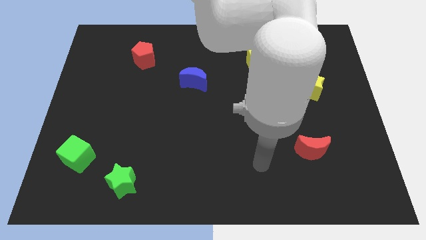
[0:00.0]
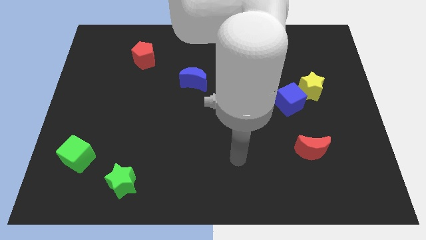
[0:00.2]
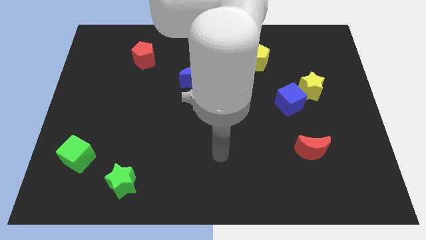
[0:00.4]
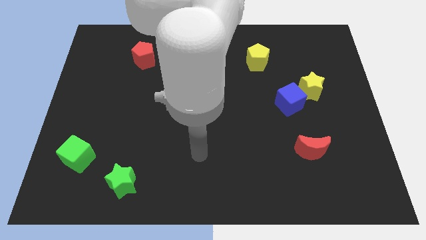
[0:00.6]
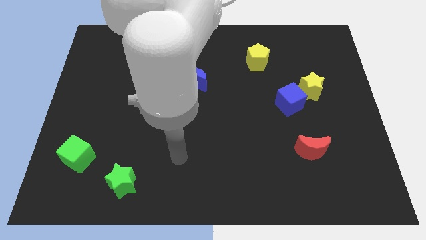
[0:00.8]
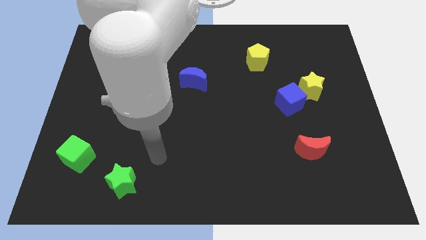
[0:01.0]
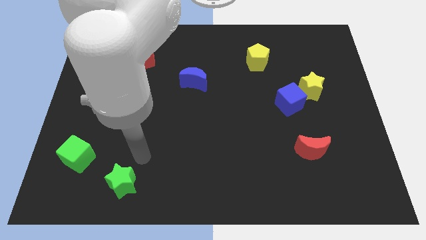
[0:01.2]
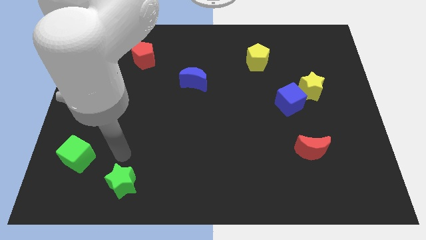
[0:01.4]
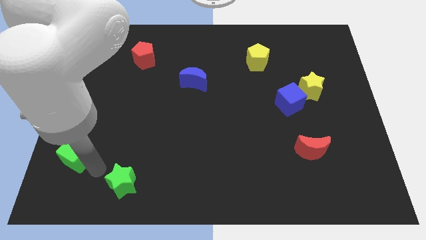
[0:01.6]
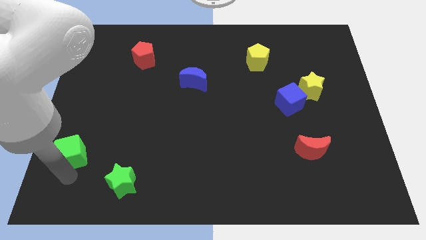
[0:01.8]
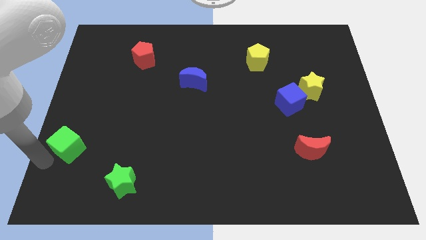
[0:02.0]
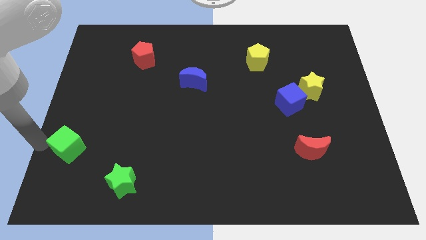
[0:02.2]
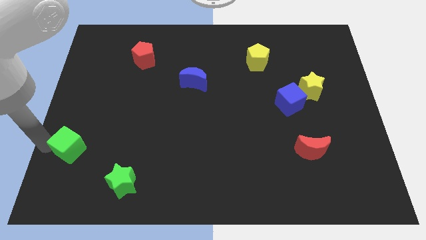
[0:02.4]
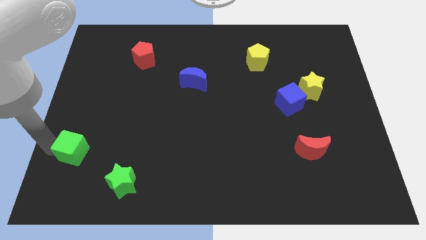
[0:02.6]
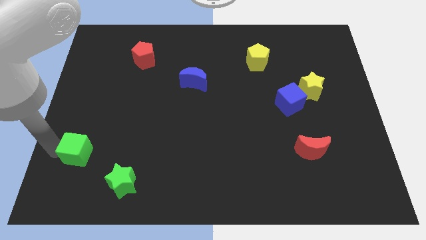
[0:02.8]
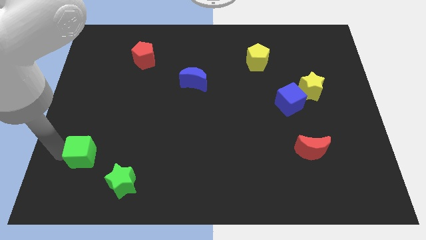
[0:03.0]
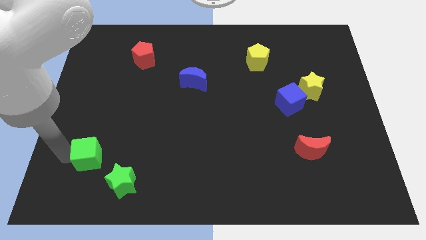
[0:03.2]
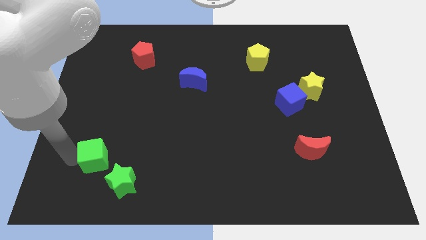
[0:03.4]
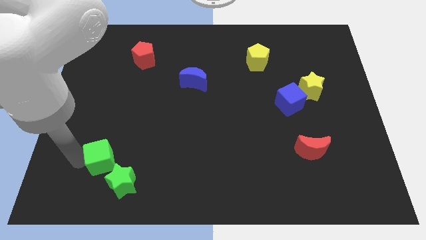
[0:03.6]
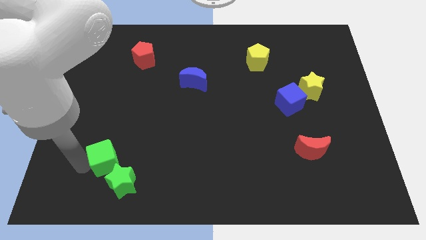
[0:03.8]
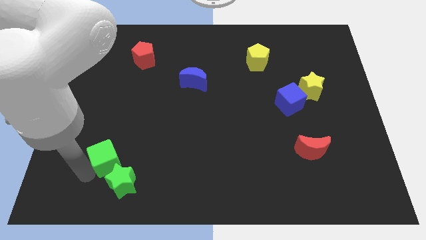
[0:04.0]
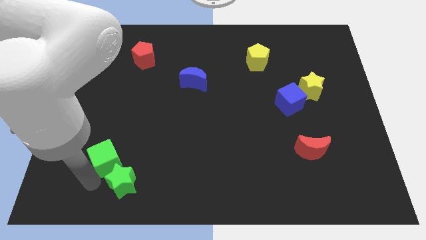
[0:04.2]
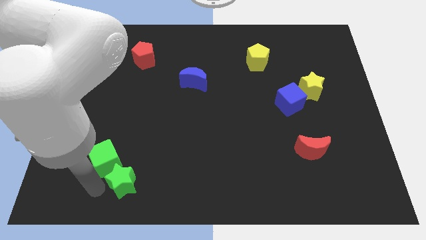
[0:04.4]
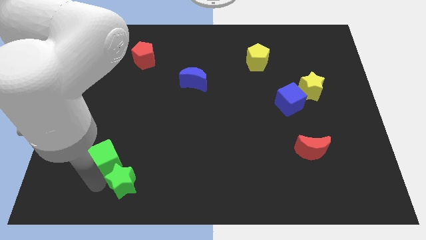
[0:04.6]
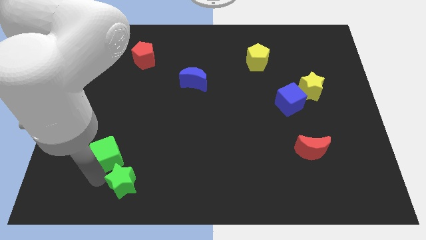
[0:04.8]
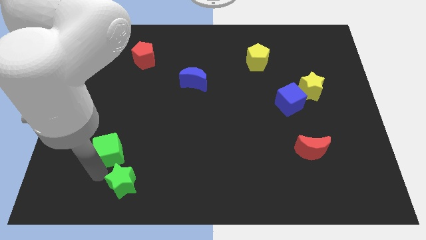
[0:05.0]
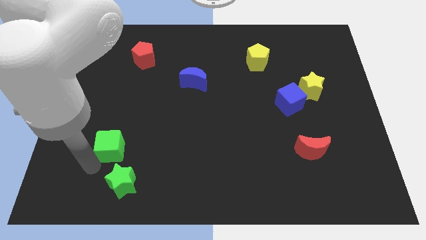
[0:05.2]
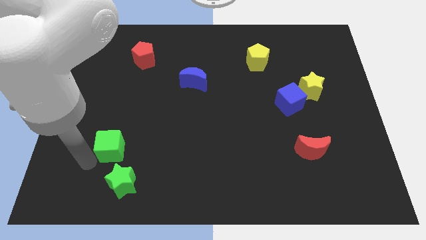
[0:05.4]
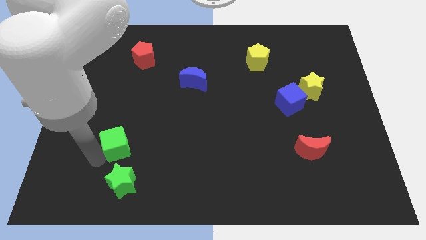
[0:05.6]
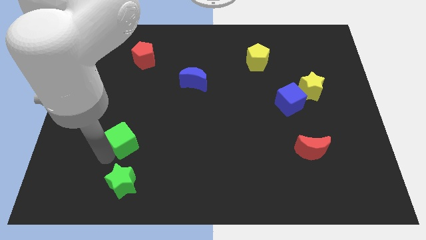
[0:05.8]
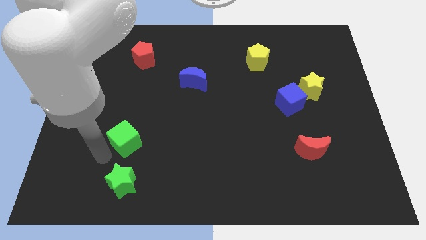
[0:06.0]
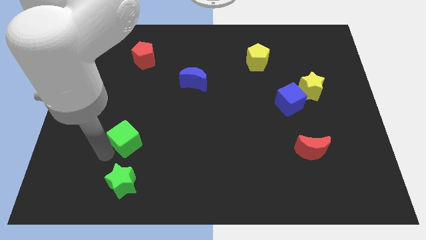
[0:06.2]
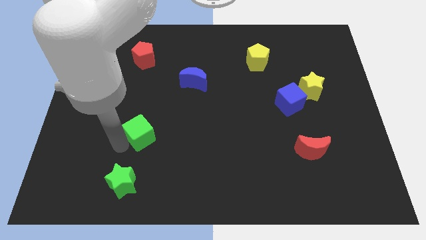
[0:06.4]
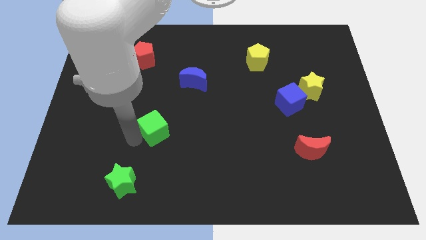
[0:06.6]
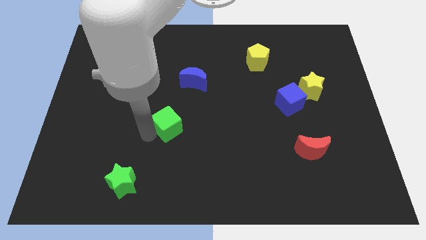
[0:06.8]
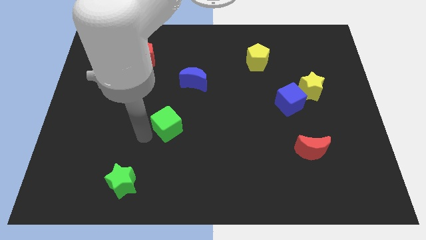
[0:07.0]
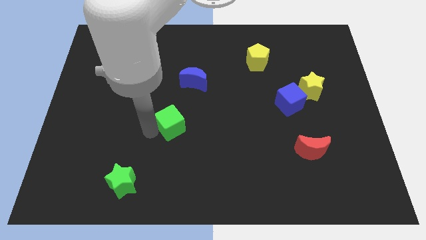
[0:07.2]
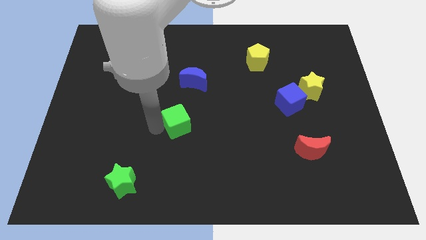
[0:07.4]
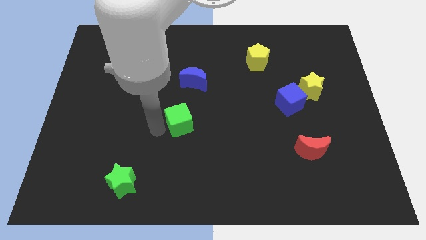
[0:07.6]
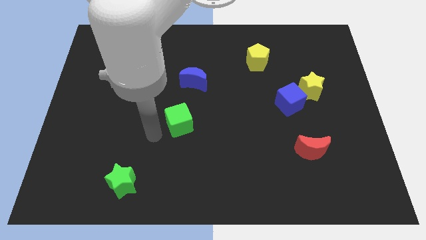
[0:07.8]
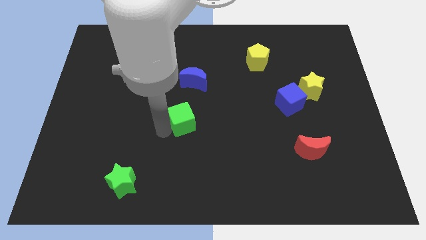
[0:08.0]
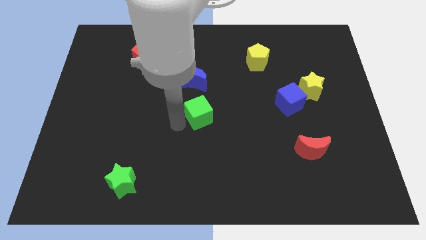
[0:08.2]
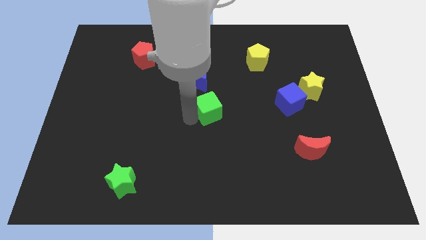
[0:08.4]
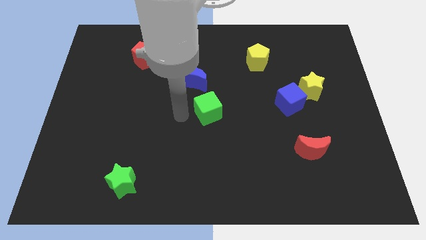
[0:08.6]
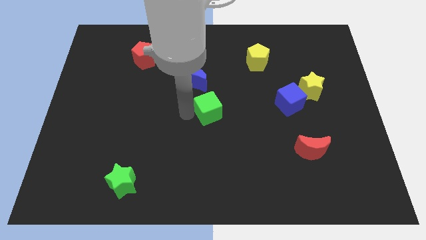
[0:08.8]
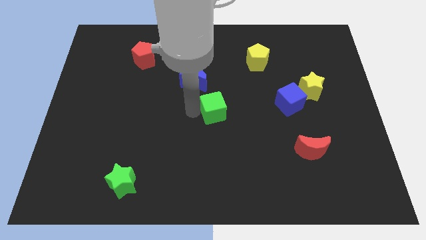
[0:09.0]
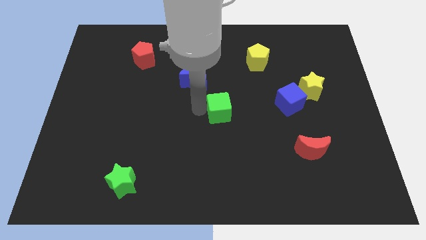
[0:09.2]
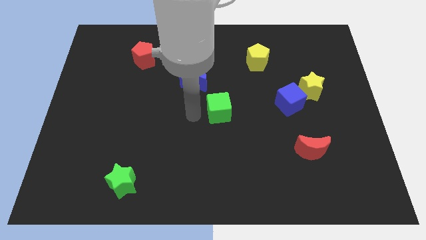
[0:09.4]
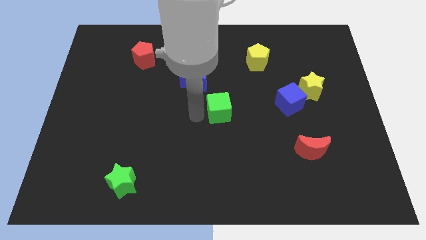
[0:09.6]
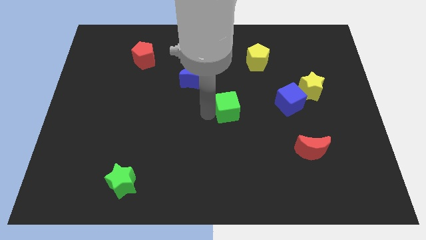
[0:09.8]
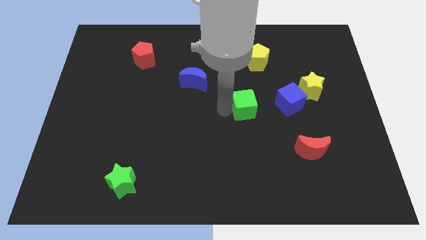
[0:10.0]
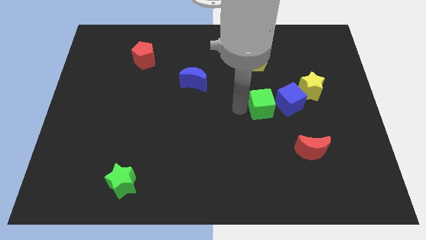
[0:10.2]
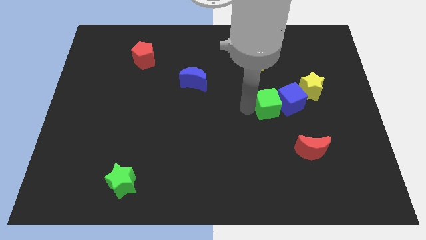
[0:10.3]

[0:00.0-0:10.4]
slide the green cube close to the blue cube

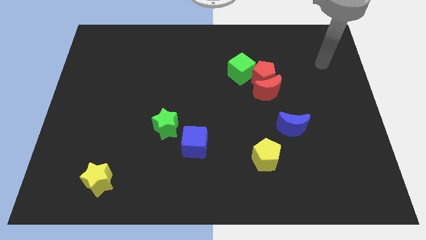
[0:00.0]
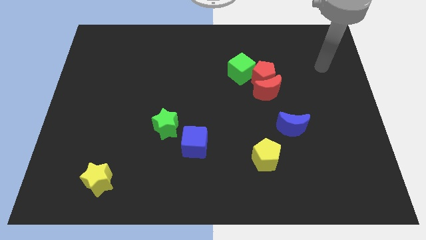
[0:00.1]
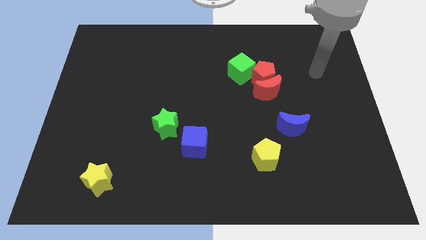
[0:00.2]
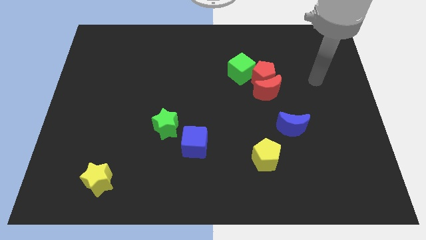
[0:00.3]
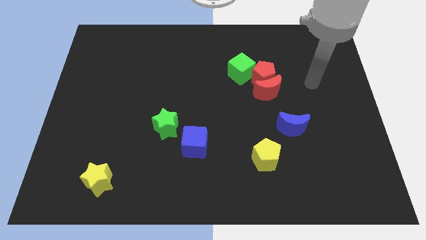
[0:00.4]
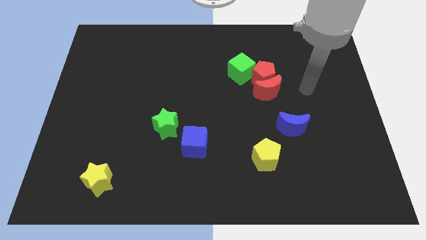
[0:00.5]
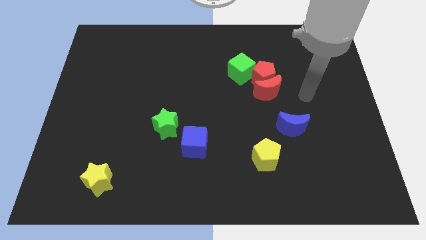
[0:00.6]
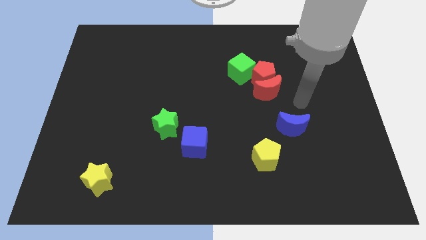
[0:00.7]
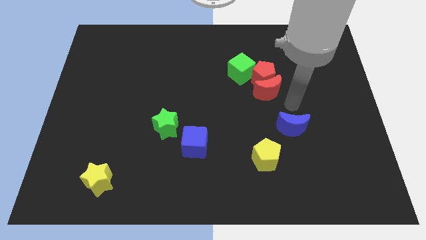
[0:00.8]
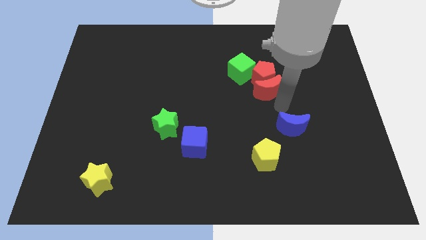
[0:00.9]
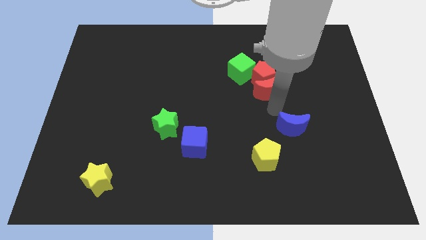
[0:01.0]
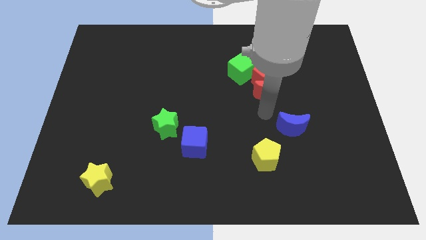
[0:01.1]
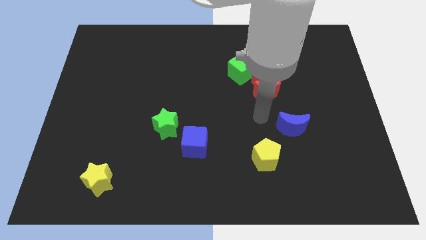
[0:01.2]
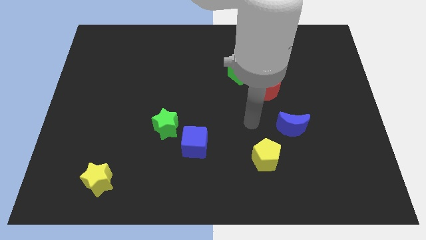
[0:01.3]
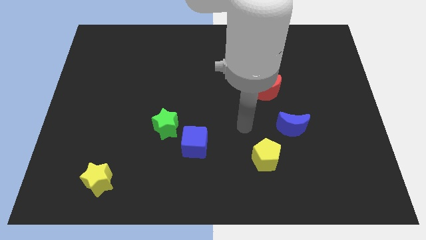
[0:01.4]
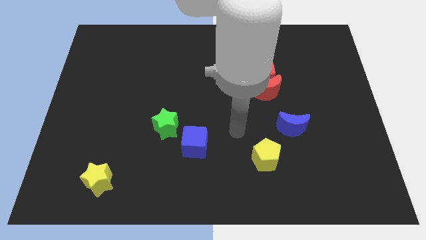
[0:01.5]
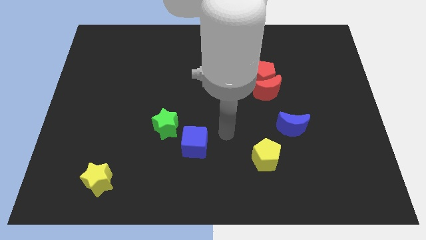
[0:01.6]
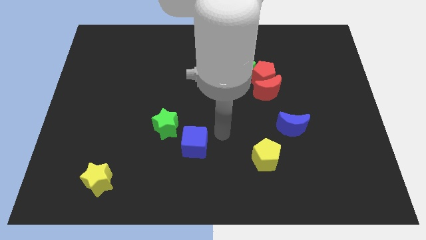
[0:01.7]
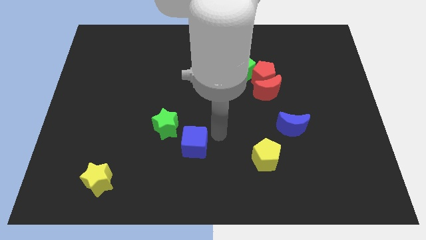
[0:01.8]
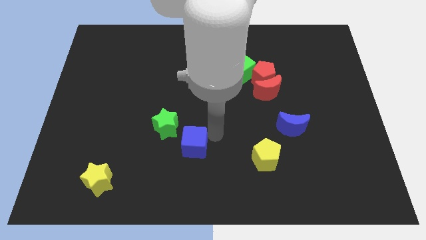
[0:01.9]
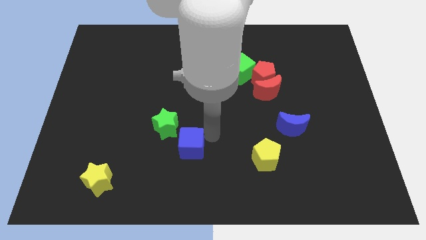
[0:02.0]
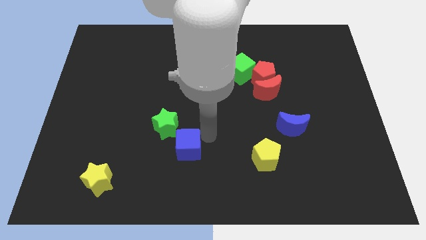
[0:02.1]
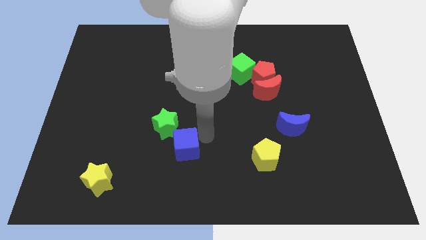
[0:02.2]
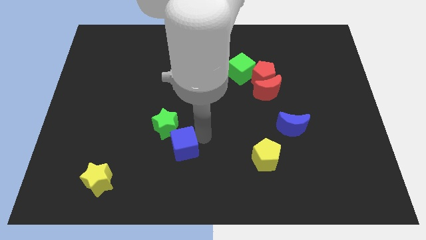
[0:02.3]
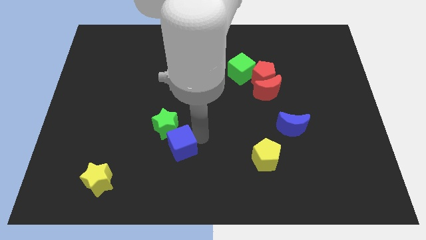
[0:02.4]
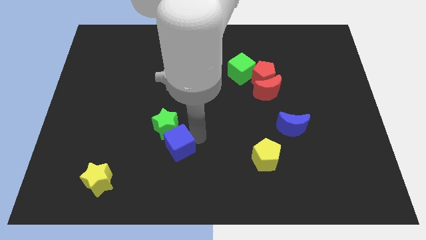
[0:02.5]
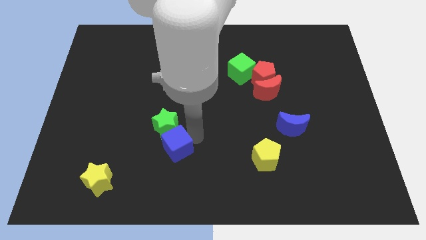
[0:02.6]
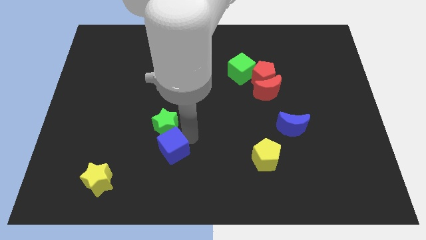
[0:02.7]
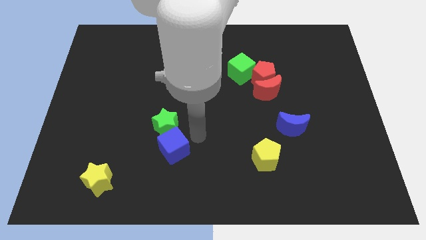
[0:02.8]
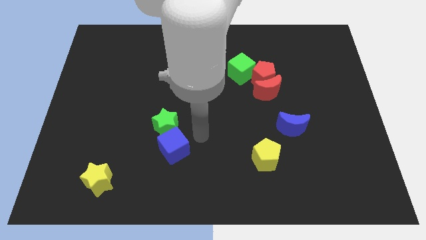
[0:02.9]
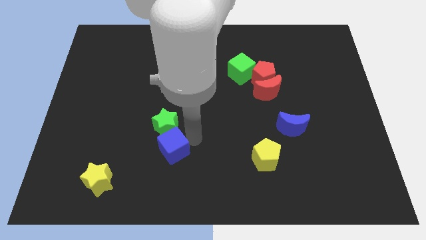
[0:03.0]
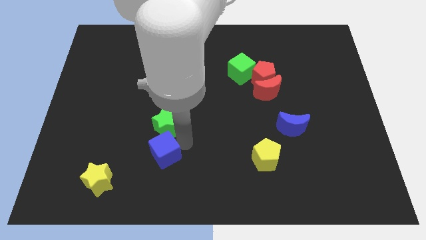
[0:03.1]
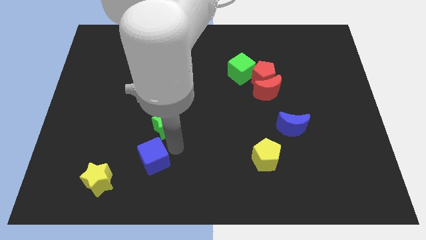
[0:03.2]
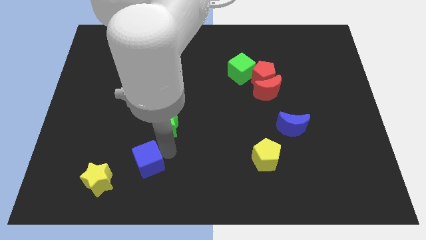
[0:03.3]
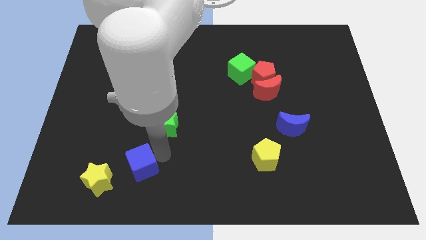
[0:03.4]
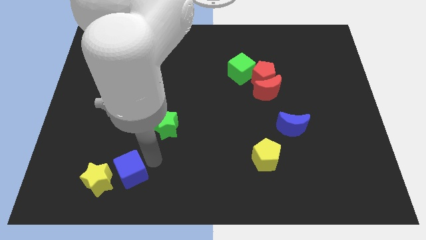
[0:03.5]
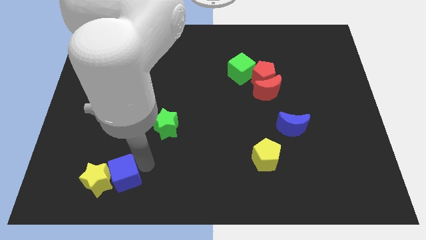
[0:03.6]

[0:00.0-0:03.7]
push the blue cube close to the yellow star
